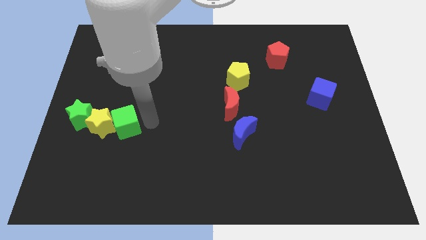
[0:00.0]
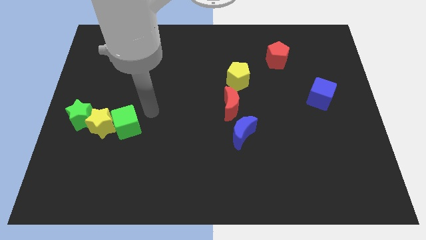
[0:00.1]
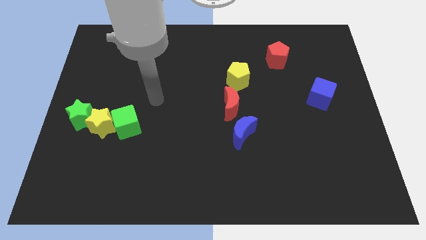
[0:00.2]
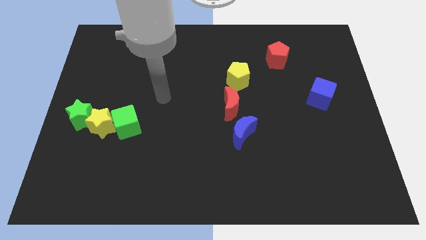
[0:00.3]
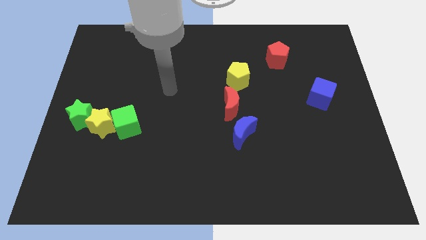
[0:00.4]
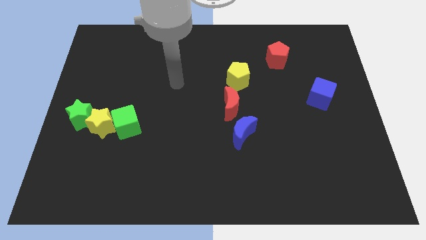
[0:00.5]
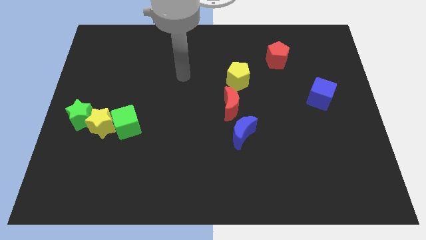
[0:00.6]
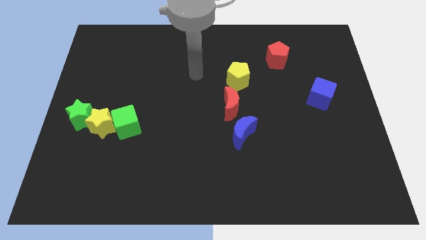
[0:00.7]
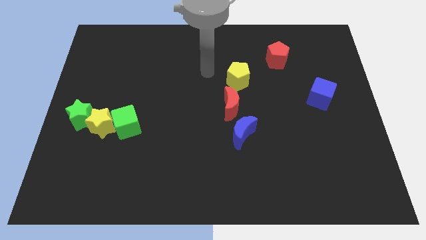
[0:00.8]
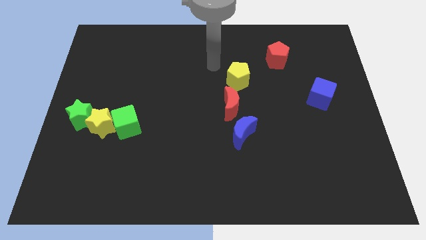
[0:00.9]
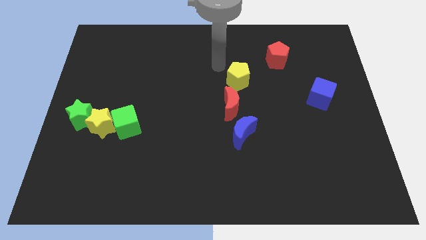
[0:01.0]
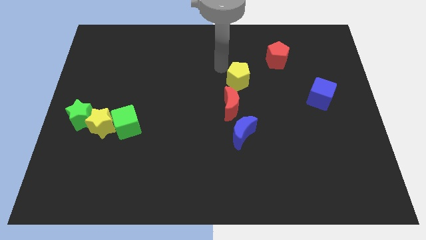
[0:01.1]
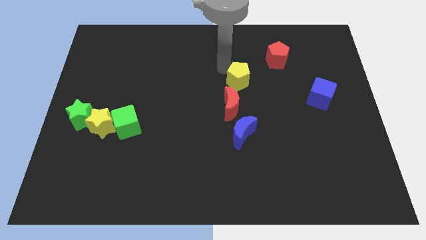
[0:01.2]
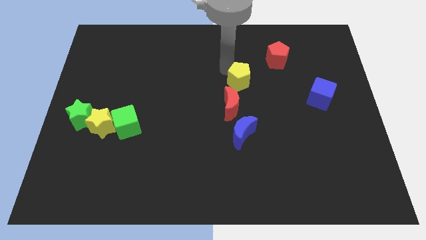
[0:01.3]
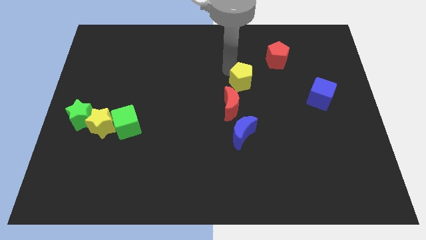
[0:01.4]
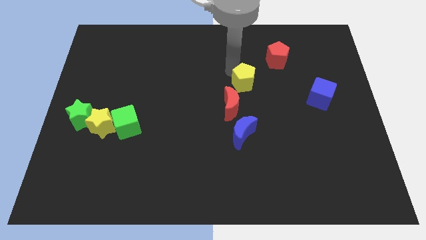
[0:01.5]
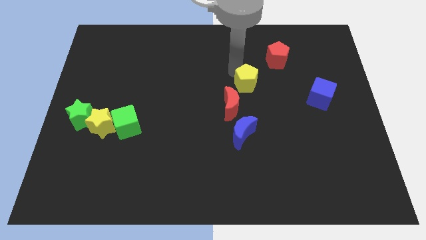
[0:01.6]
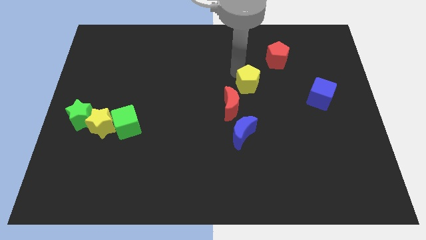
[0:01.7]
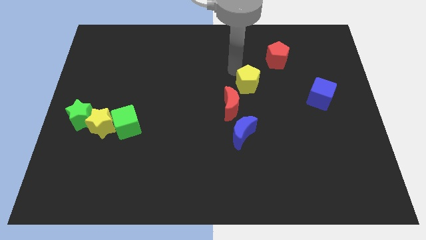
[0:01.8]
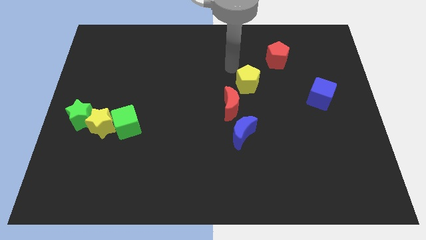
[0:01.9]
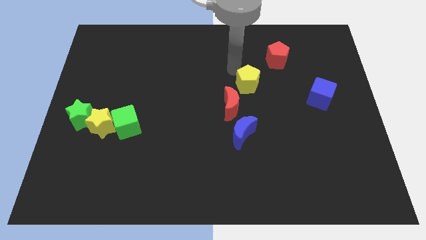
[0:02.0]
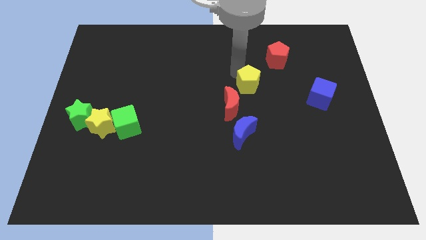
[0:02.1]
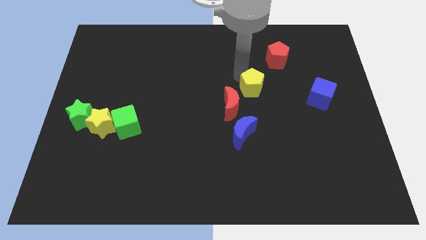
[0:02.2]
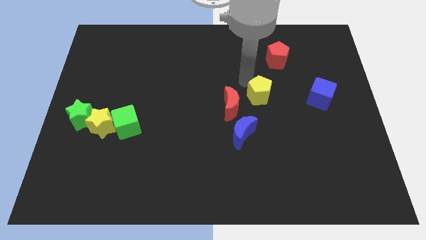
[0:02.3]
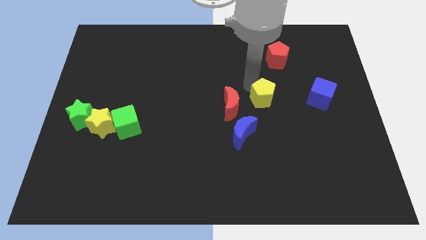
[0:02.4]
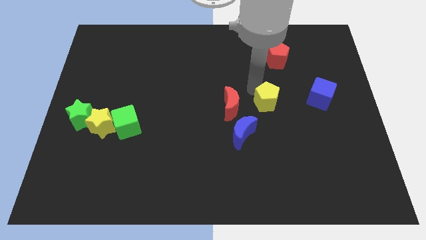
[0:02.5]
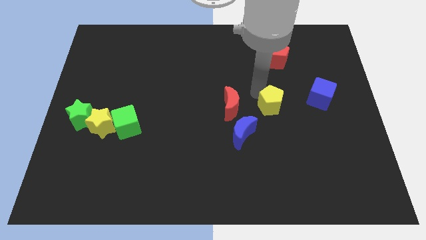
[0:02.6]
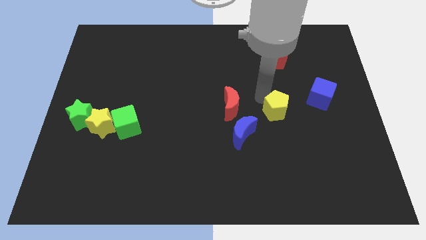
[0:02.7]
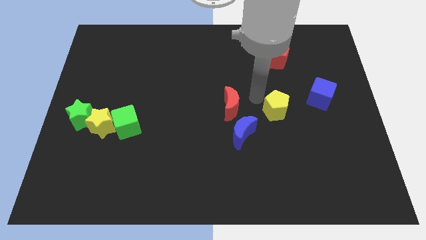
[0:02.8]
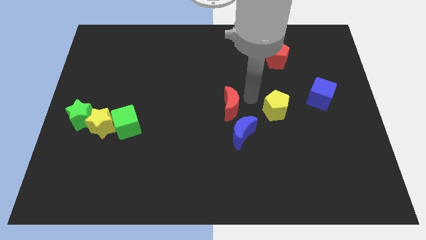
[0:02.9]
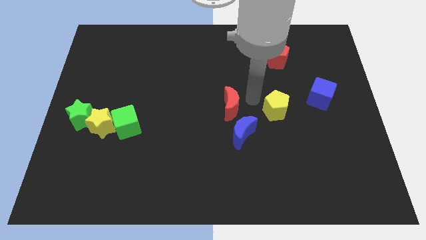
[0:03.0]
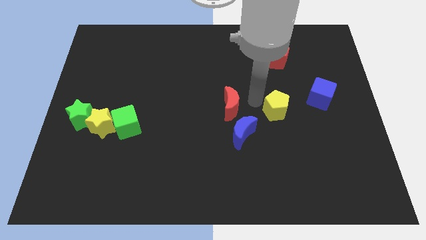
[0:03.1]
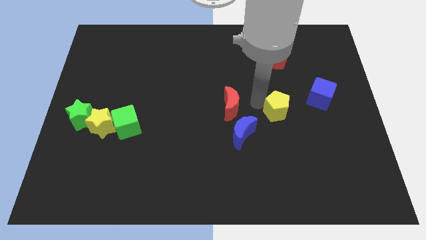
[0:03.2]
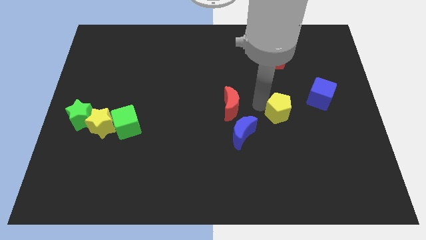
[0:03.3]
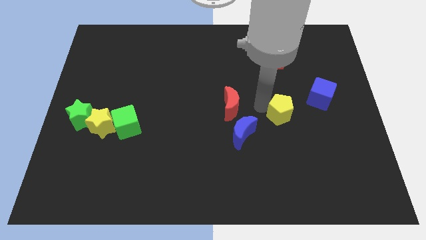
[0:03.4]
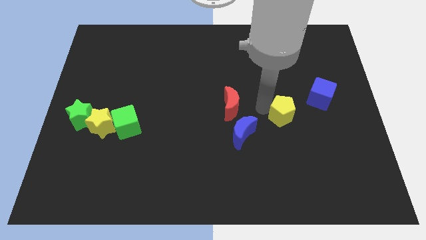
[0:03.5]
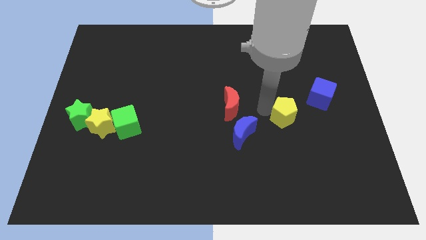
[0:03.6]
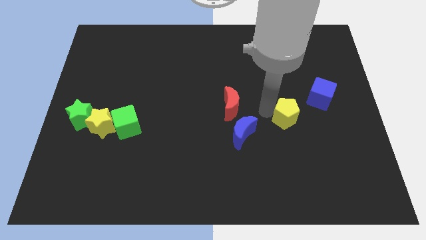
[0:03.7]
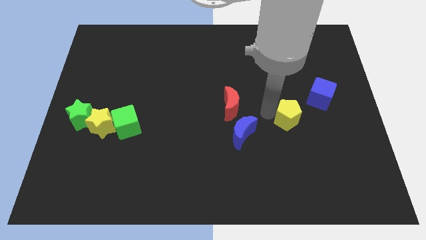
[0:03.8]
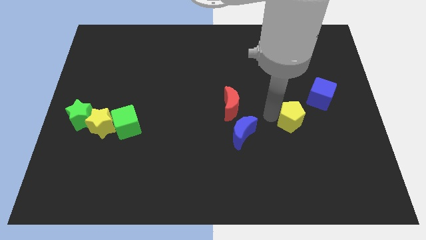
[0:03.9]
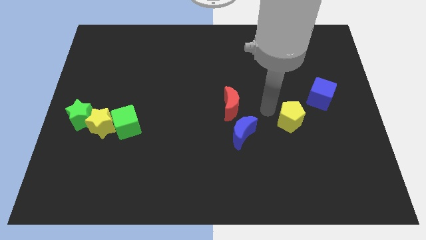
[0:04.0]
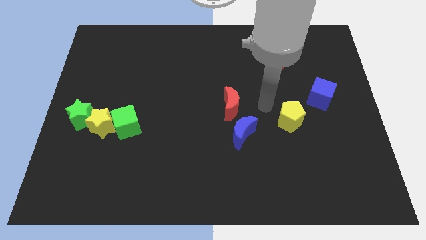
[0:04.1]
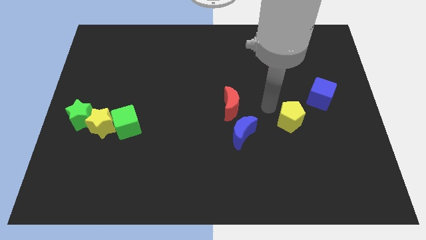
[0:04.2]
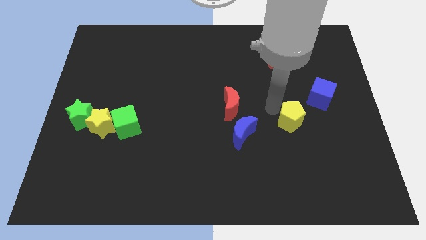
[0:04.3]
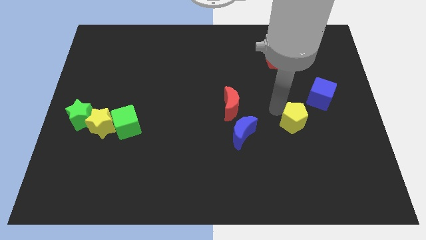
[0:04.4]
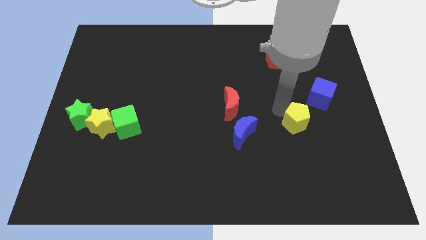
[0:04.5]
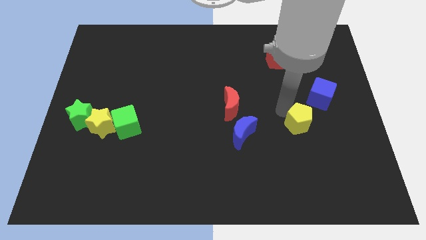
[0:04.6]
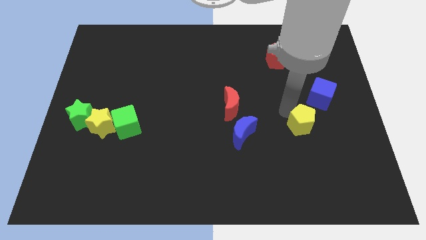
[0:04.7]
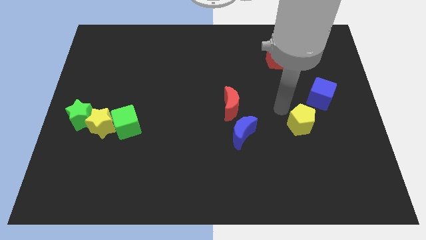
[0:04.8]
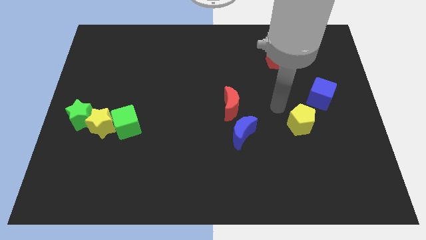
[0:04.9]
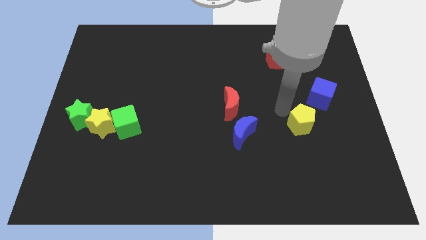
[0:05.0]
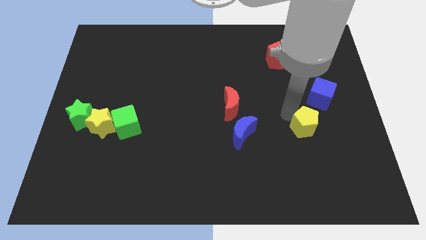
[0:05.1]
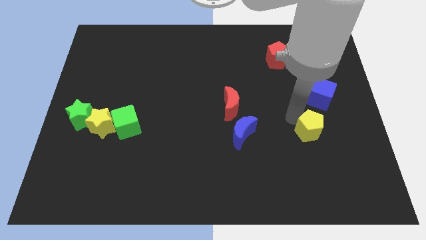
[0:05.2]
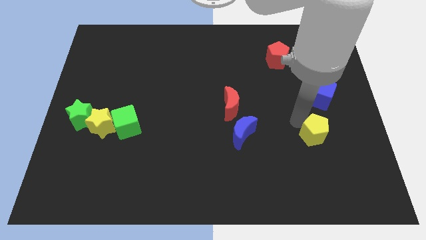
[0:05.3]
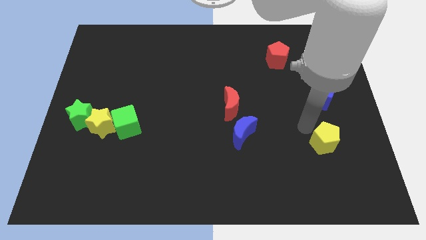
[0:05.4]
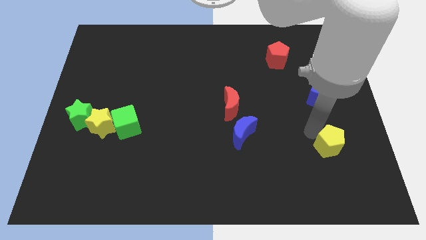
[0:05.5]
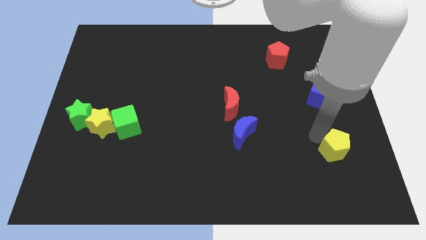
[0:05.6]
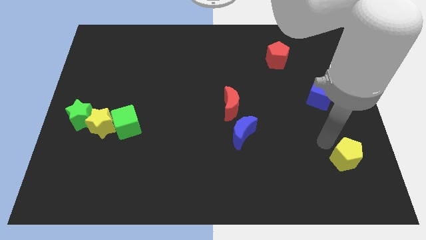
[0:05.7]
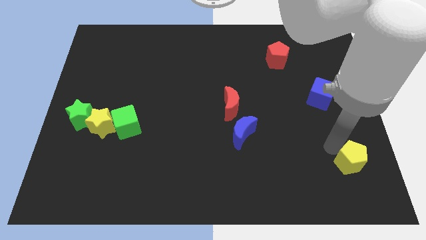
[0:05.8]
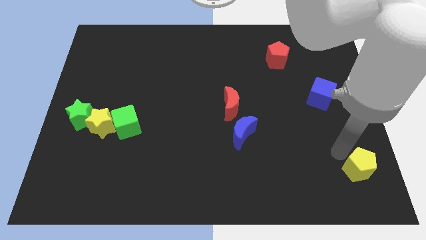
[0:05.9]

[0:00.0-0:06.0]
move the yellow pentagon to the bottom right

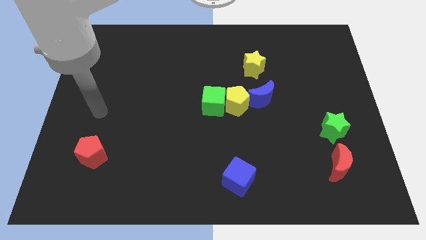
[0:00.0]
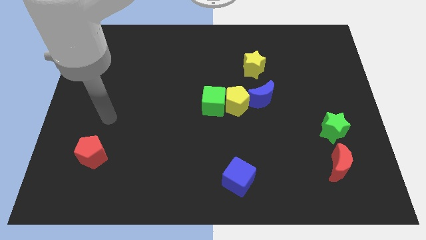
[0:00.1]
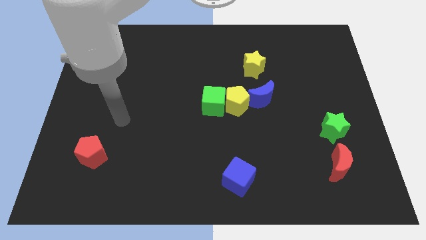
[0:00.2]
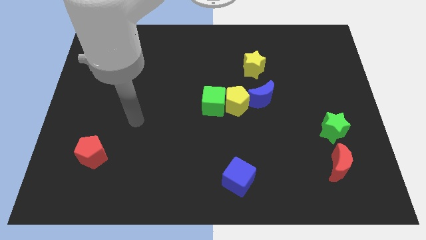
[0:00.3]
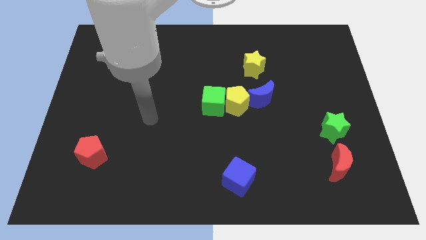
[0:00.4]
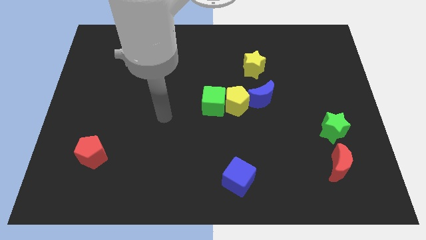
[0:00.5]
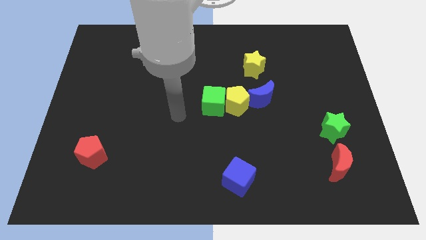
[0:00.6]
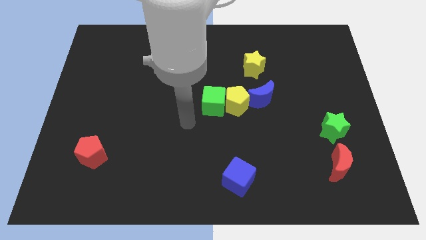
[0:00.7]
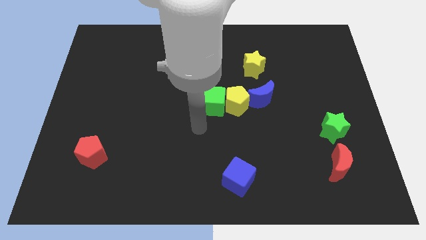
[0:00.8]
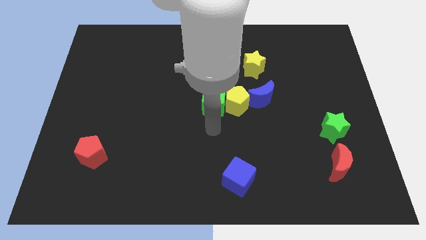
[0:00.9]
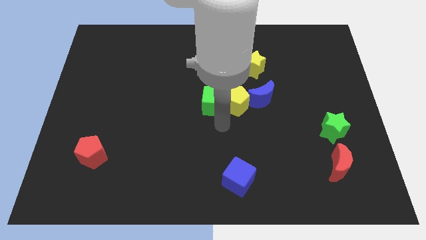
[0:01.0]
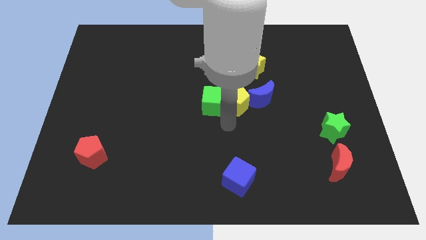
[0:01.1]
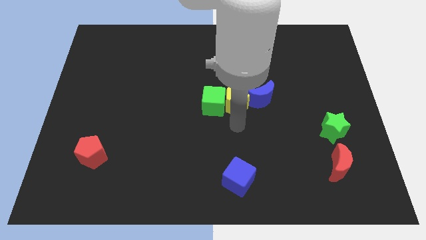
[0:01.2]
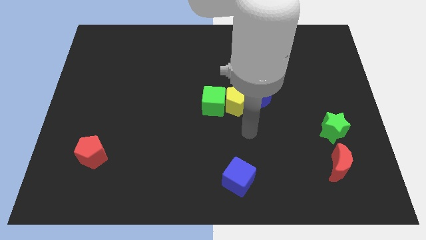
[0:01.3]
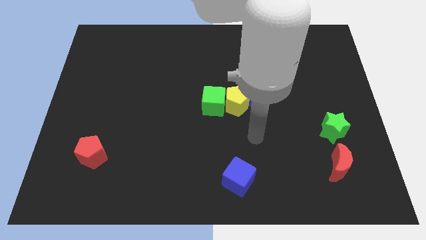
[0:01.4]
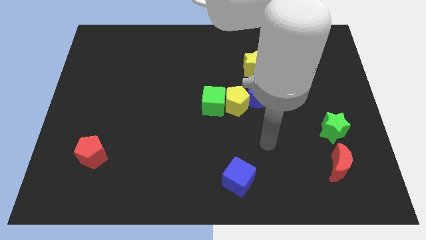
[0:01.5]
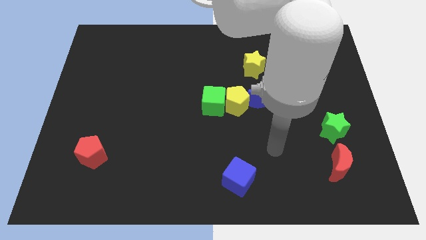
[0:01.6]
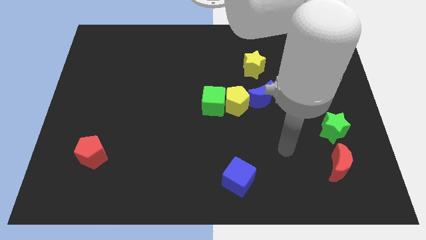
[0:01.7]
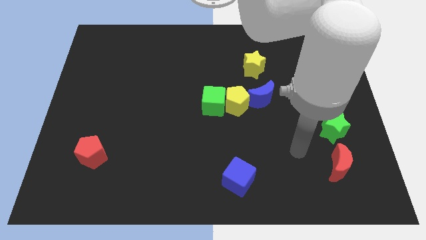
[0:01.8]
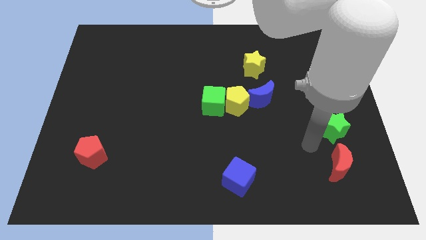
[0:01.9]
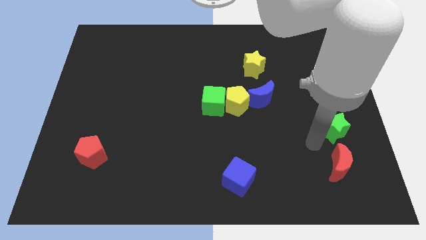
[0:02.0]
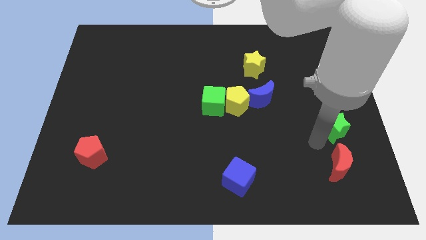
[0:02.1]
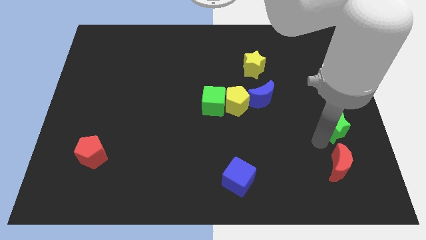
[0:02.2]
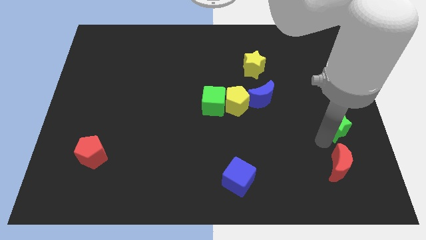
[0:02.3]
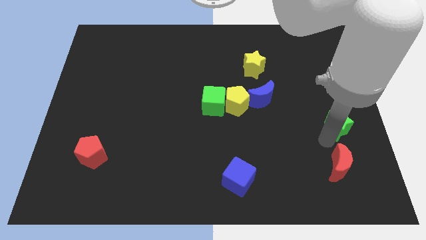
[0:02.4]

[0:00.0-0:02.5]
slide the green star to the right side of the board
